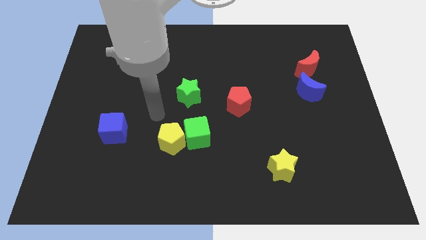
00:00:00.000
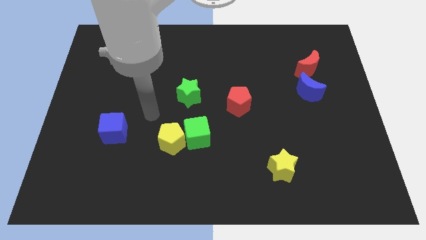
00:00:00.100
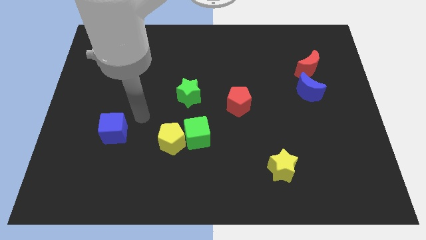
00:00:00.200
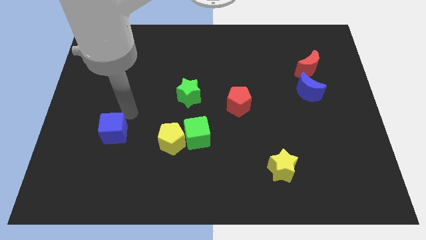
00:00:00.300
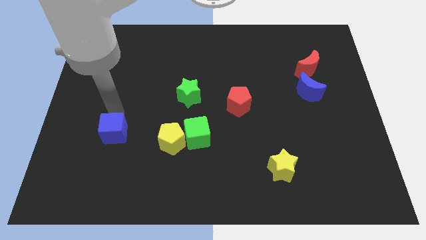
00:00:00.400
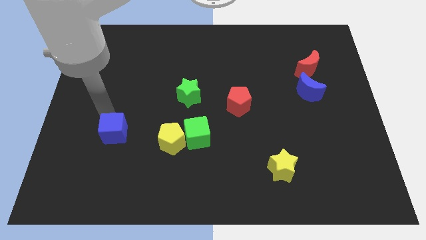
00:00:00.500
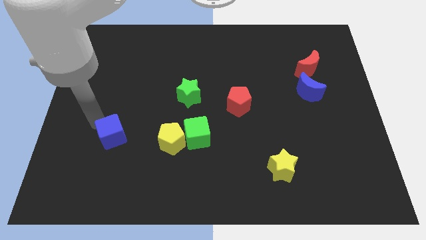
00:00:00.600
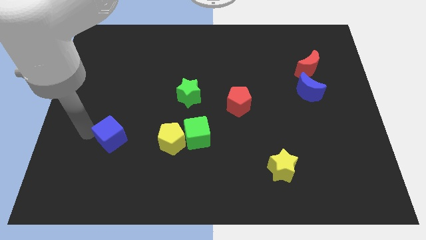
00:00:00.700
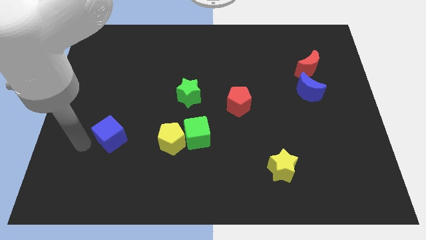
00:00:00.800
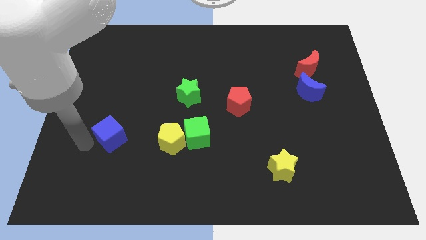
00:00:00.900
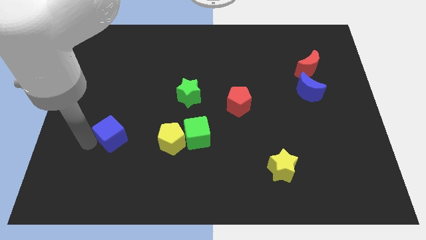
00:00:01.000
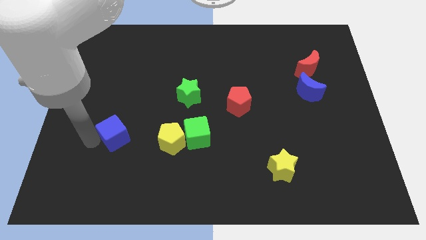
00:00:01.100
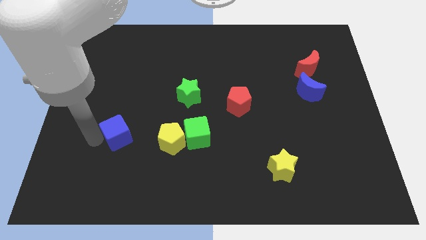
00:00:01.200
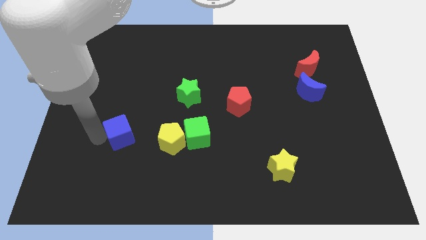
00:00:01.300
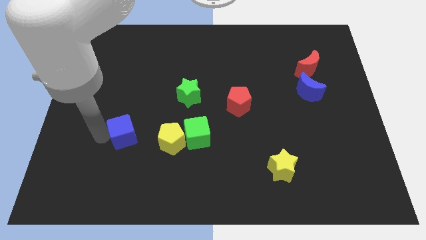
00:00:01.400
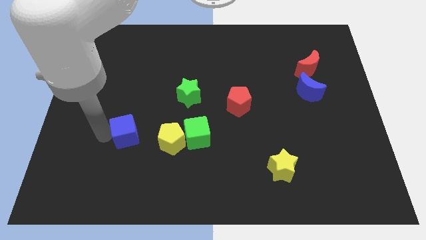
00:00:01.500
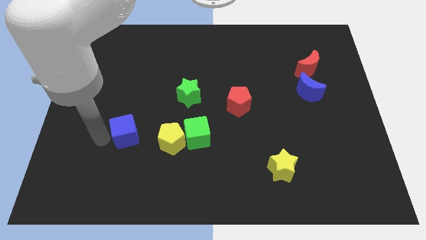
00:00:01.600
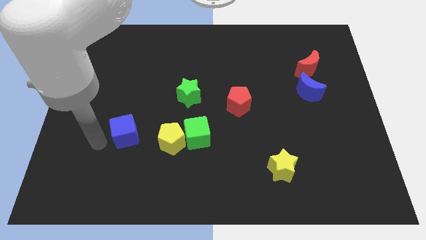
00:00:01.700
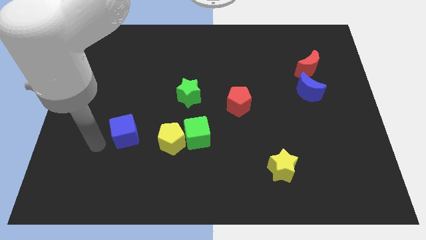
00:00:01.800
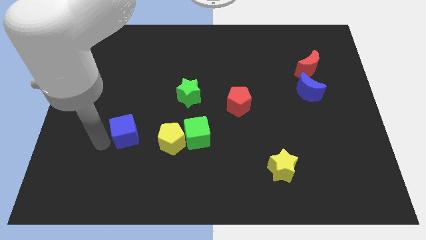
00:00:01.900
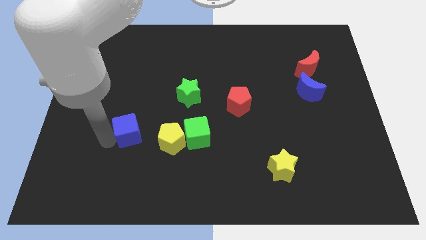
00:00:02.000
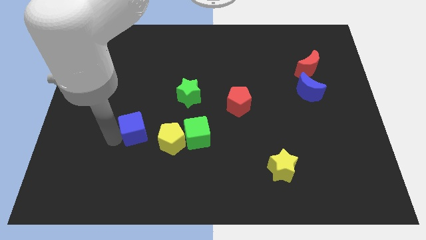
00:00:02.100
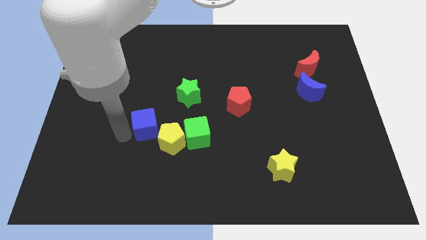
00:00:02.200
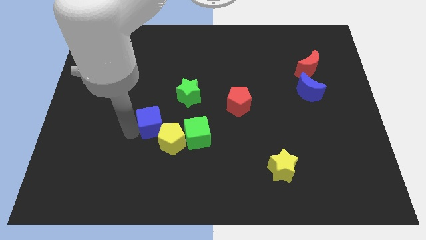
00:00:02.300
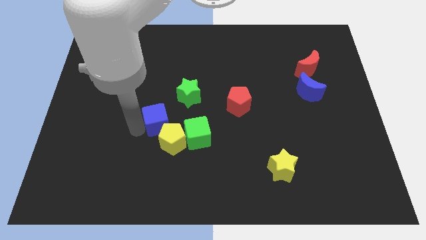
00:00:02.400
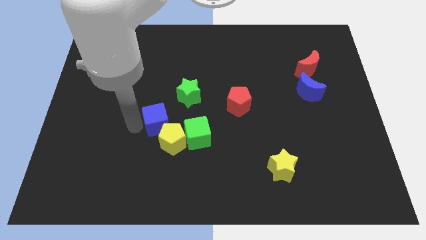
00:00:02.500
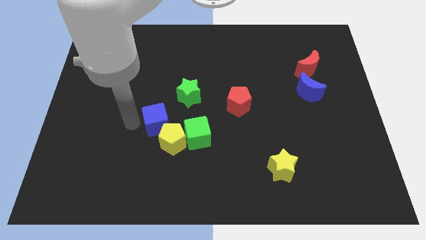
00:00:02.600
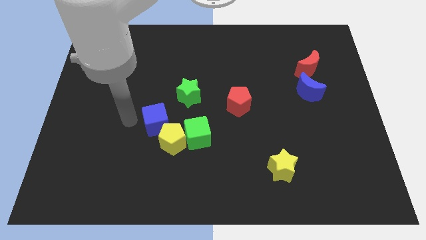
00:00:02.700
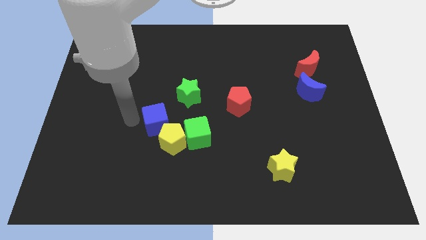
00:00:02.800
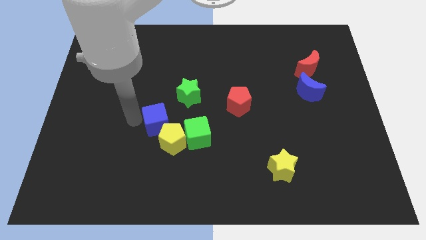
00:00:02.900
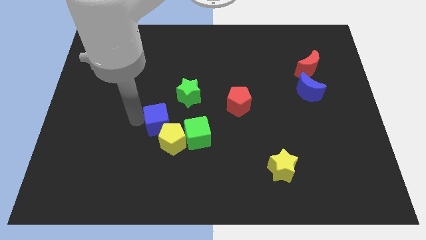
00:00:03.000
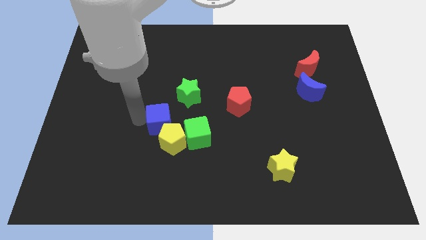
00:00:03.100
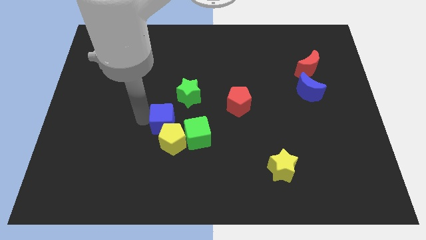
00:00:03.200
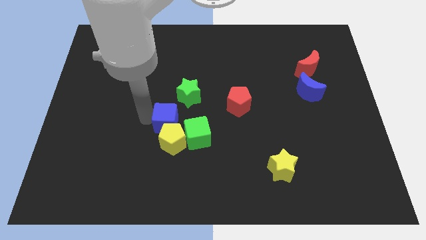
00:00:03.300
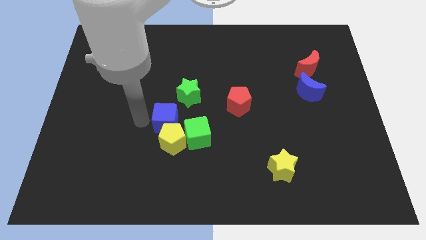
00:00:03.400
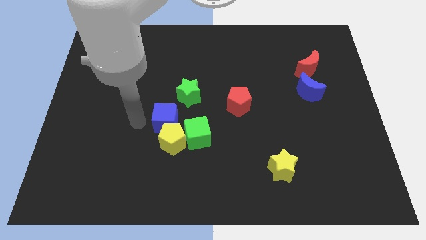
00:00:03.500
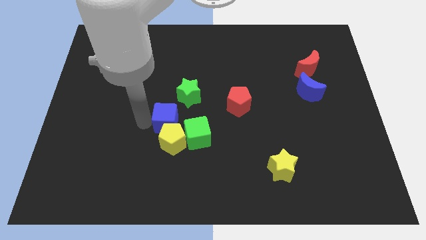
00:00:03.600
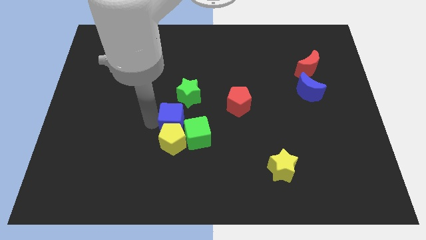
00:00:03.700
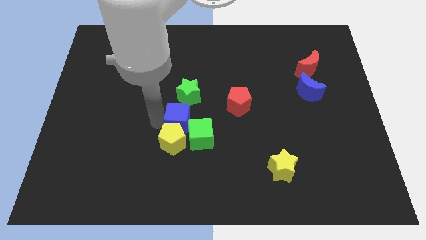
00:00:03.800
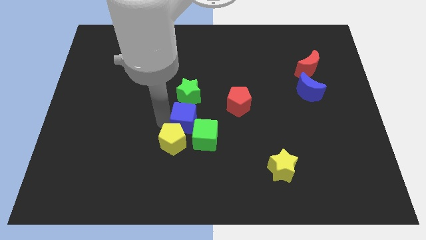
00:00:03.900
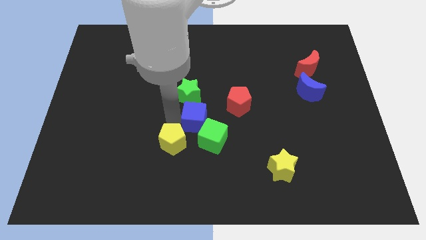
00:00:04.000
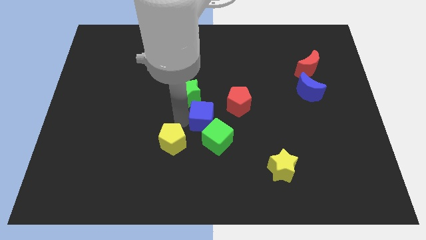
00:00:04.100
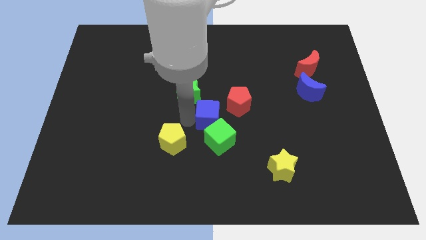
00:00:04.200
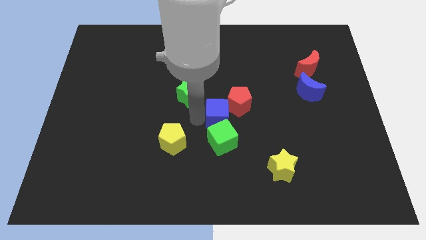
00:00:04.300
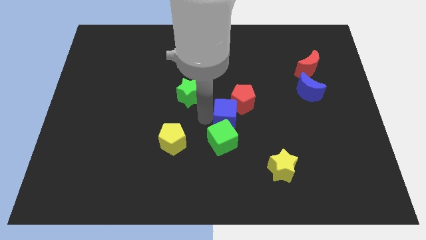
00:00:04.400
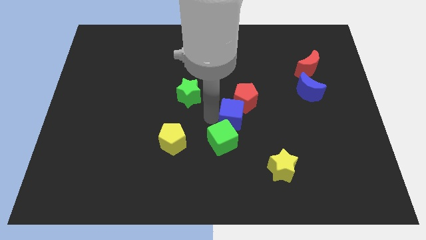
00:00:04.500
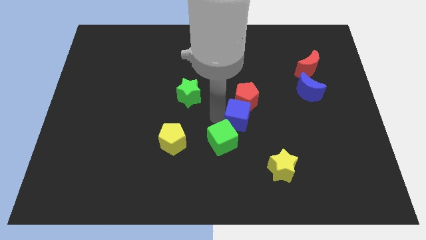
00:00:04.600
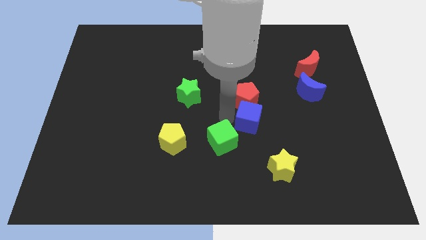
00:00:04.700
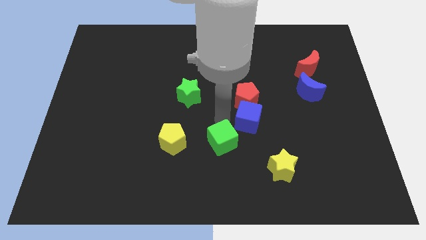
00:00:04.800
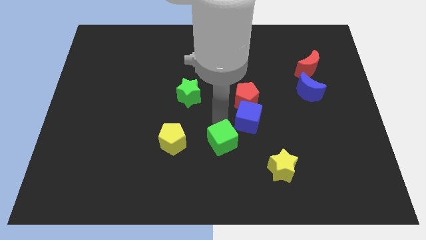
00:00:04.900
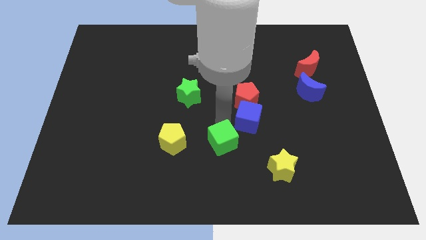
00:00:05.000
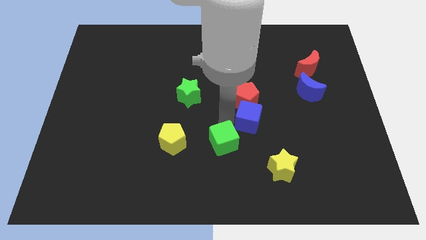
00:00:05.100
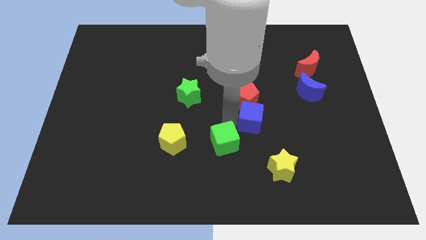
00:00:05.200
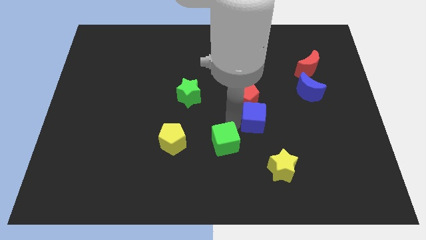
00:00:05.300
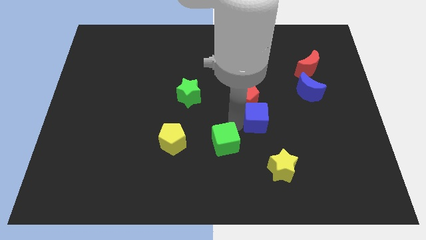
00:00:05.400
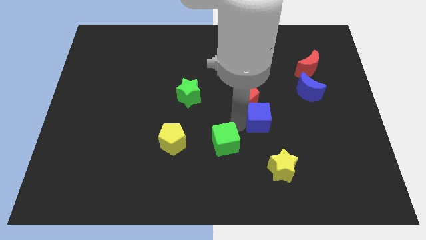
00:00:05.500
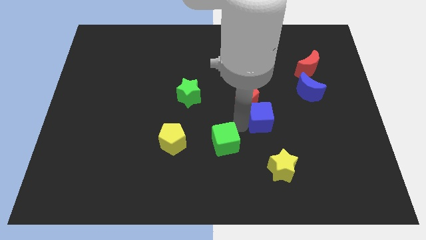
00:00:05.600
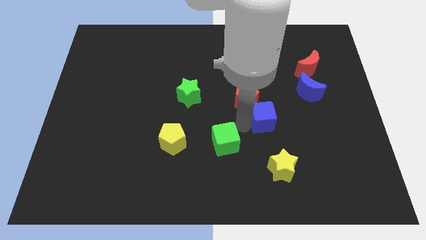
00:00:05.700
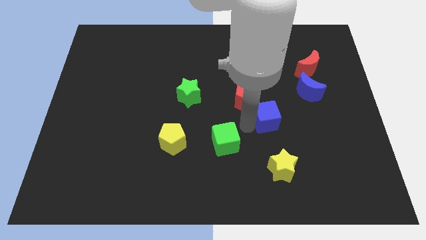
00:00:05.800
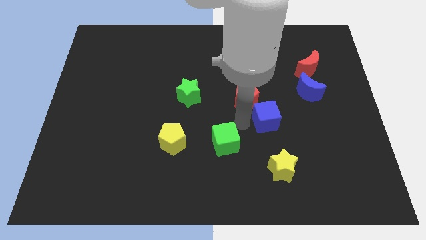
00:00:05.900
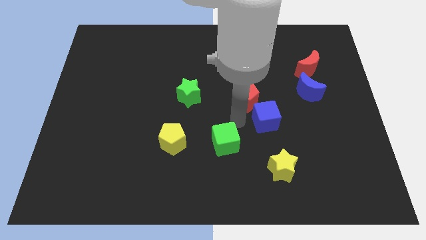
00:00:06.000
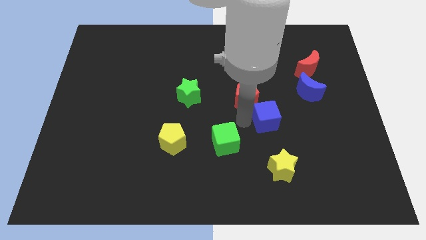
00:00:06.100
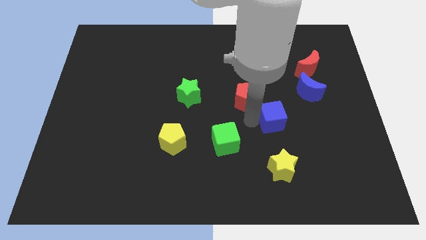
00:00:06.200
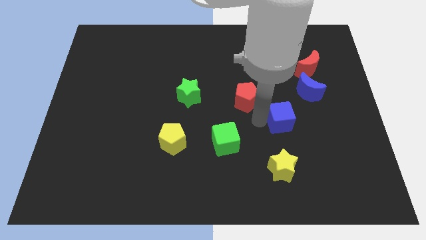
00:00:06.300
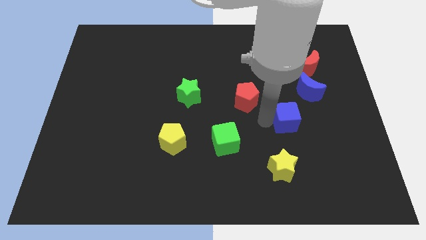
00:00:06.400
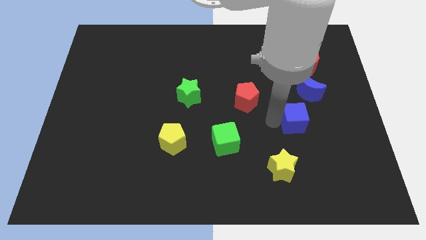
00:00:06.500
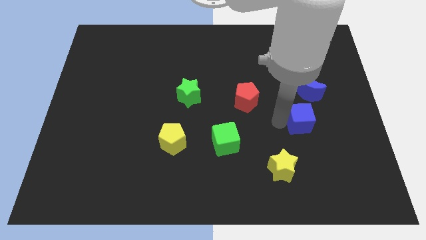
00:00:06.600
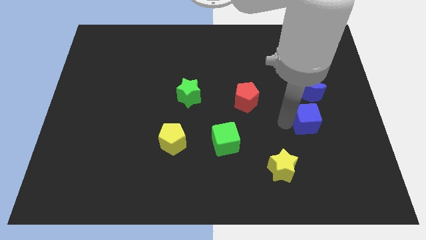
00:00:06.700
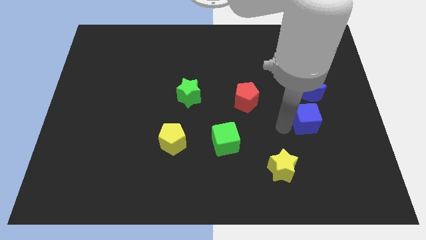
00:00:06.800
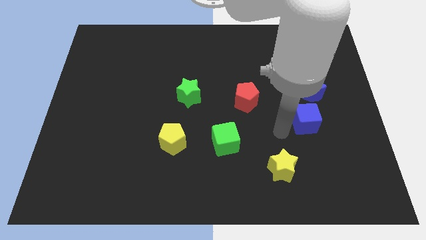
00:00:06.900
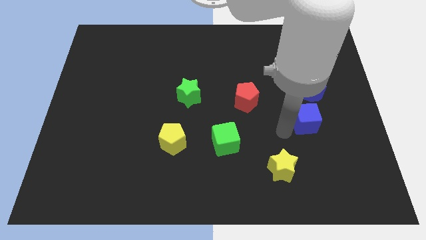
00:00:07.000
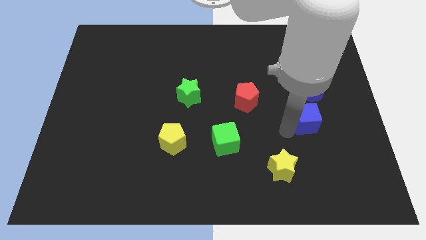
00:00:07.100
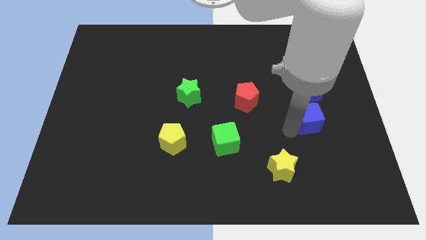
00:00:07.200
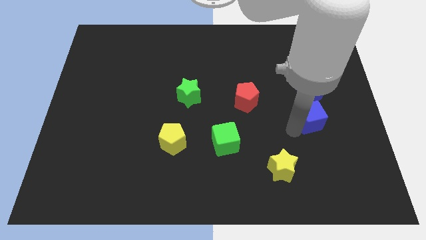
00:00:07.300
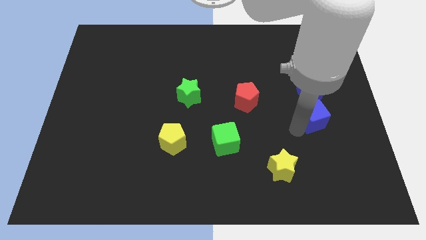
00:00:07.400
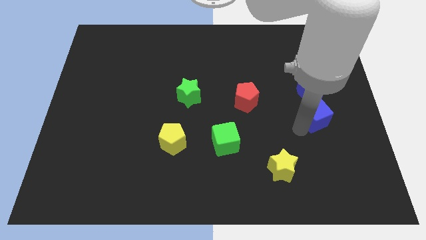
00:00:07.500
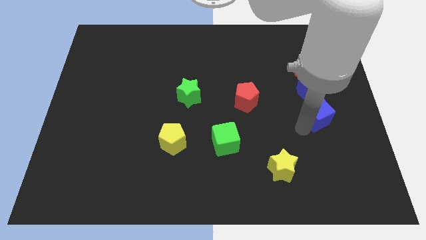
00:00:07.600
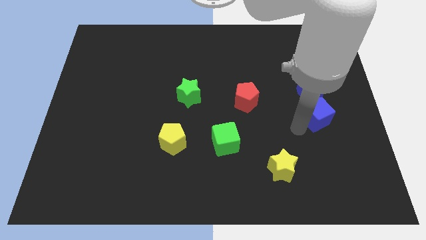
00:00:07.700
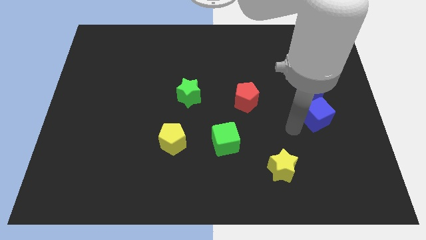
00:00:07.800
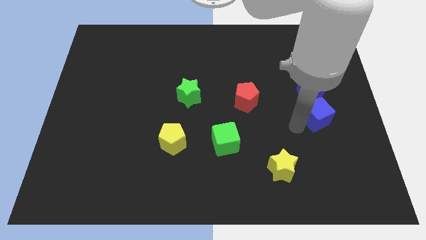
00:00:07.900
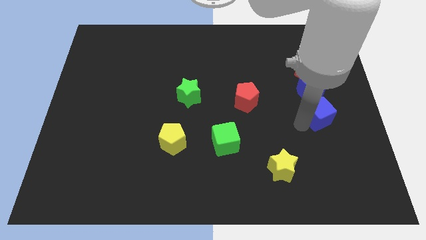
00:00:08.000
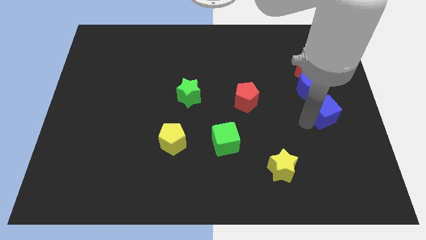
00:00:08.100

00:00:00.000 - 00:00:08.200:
move the blue cube to the center right
